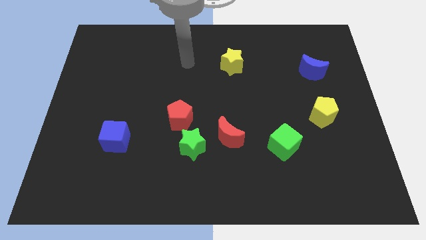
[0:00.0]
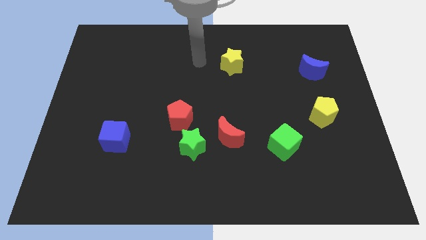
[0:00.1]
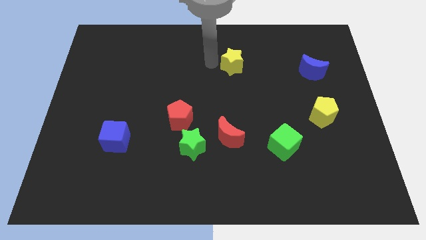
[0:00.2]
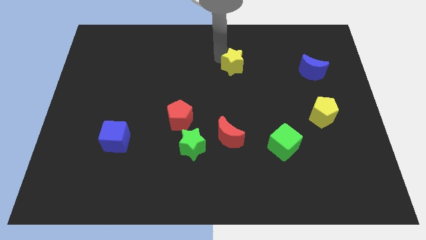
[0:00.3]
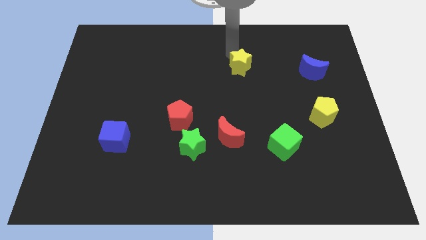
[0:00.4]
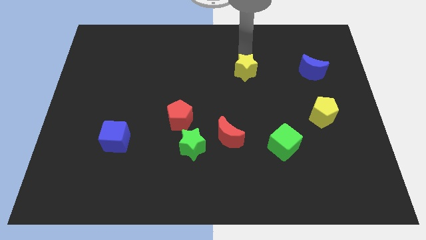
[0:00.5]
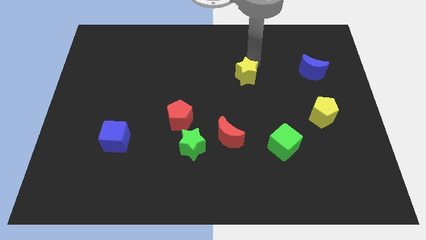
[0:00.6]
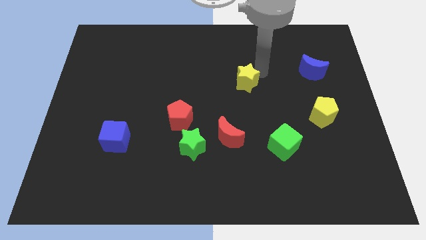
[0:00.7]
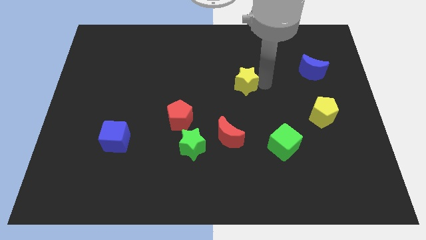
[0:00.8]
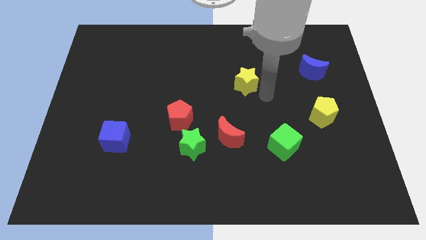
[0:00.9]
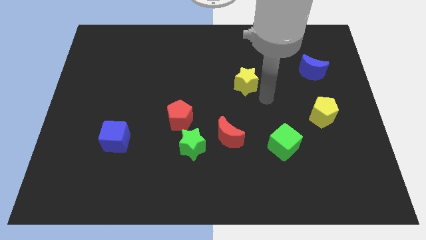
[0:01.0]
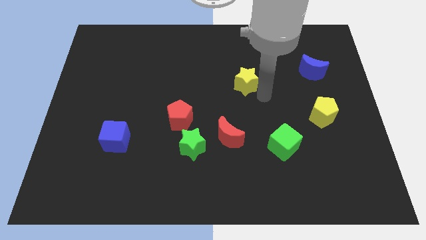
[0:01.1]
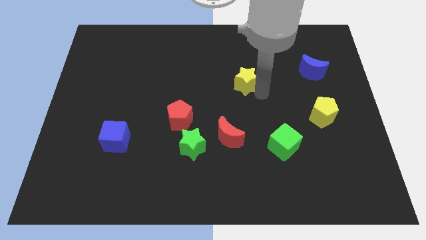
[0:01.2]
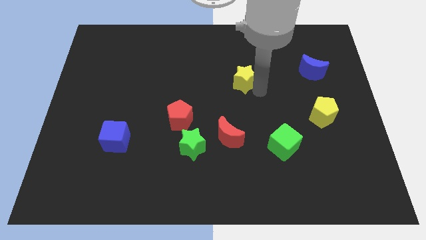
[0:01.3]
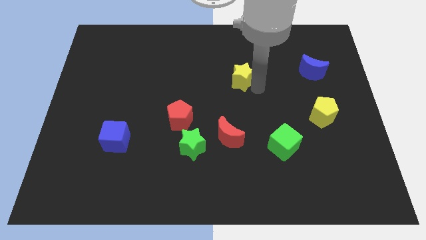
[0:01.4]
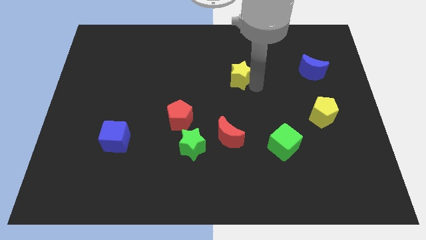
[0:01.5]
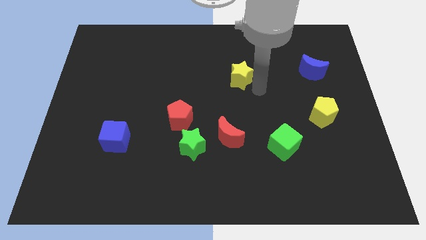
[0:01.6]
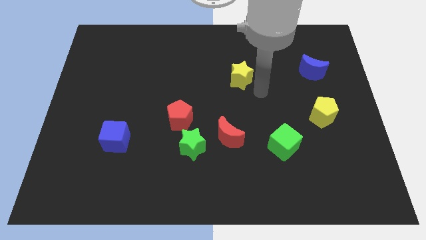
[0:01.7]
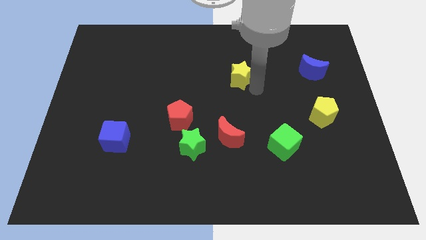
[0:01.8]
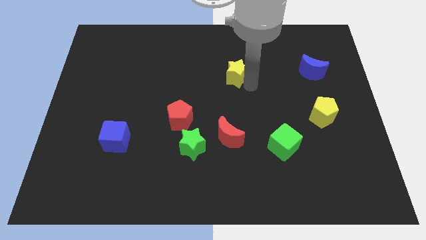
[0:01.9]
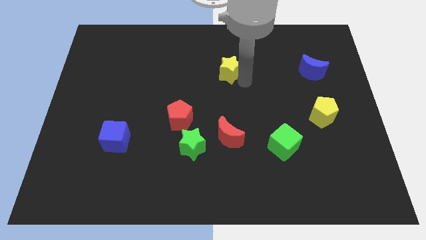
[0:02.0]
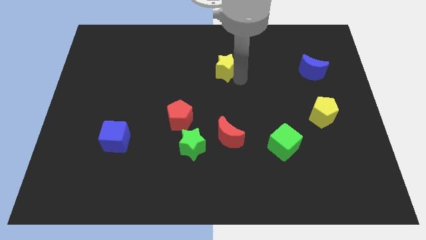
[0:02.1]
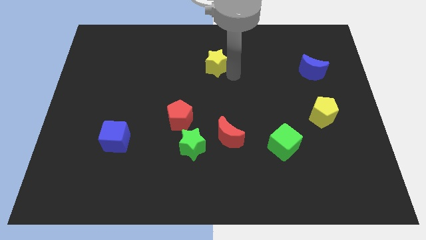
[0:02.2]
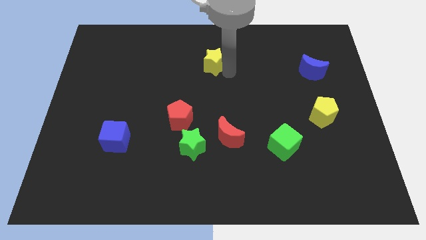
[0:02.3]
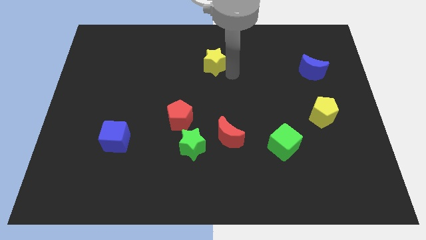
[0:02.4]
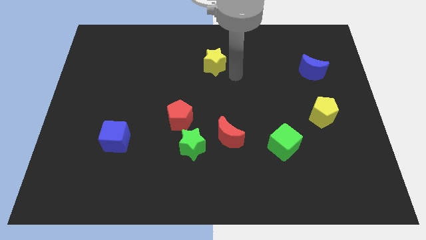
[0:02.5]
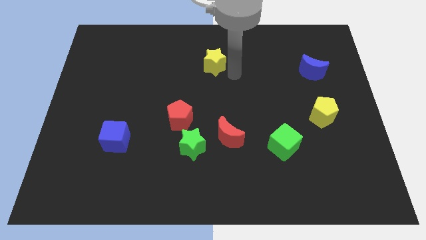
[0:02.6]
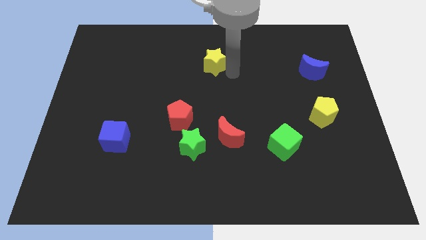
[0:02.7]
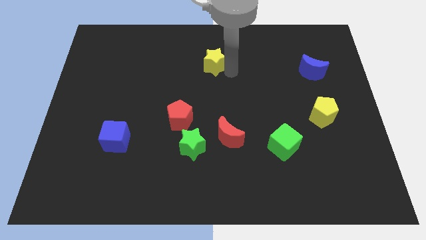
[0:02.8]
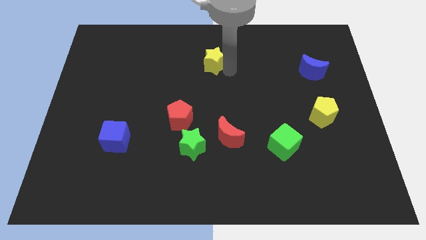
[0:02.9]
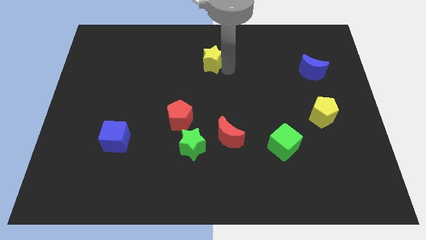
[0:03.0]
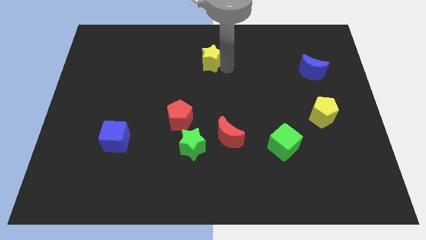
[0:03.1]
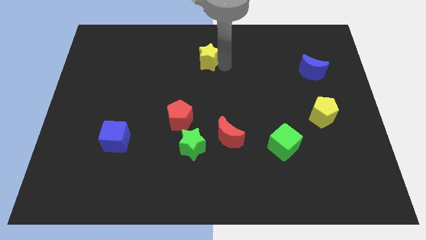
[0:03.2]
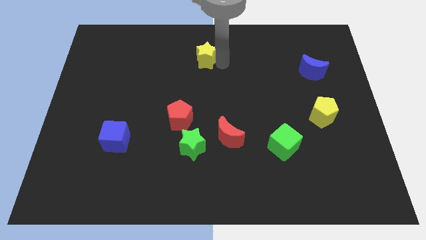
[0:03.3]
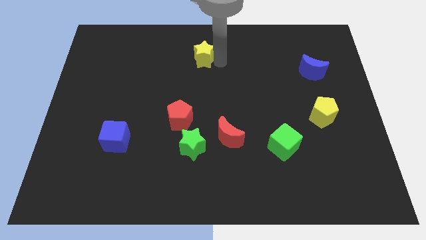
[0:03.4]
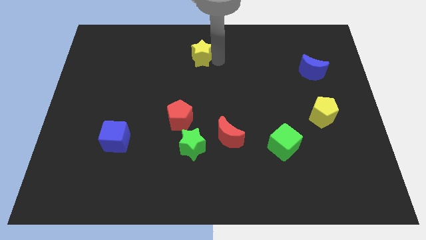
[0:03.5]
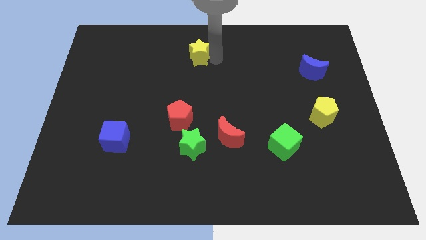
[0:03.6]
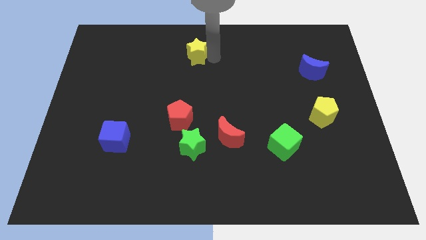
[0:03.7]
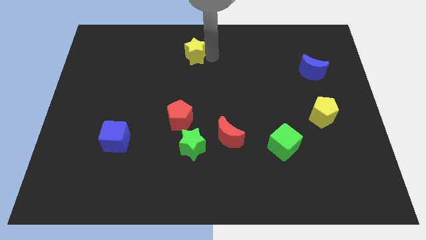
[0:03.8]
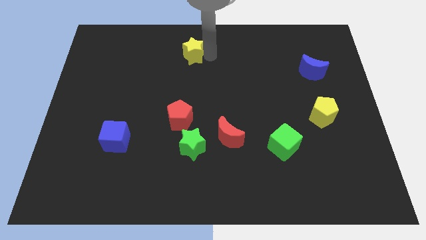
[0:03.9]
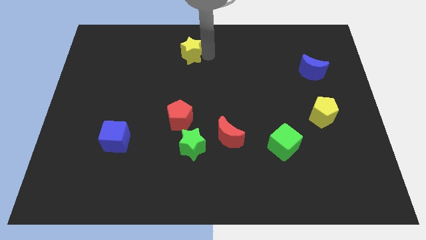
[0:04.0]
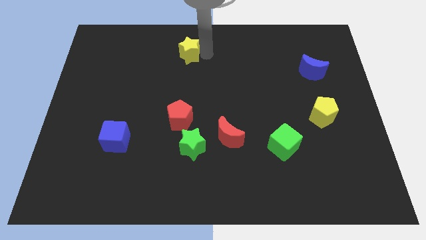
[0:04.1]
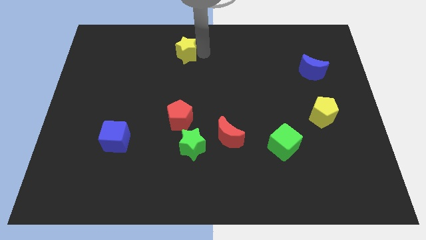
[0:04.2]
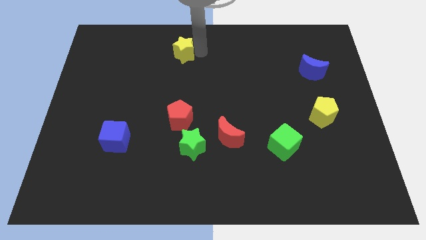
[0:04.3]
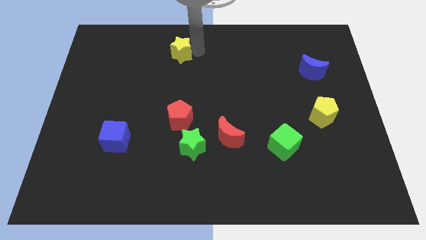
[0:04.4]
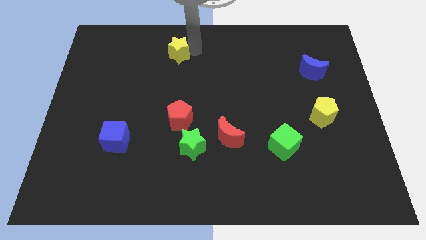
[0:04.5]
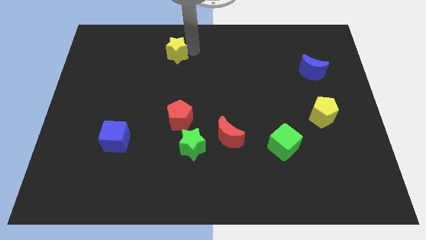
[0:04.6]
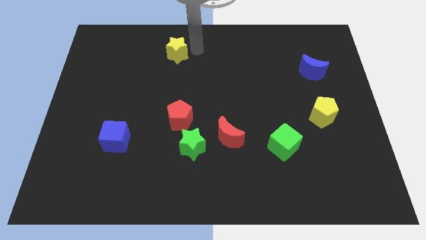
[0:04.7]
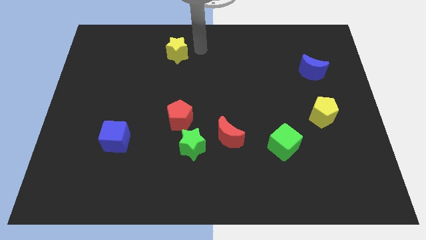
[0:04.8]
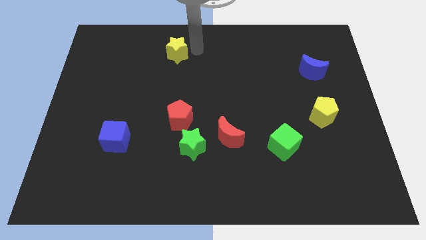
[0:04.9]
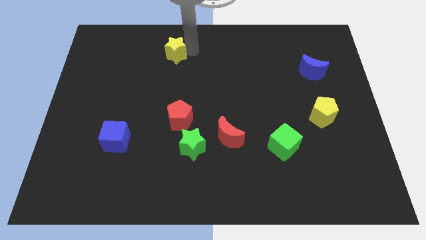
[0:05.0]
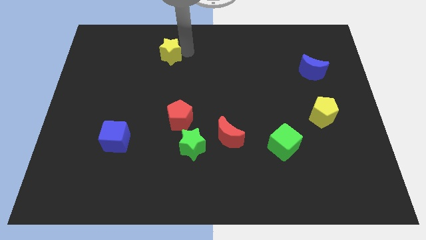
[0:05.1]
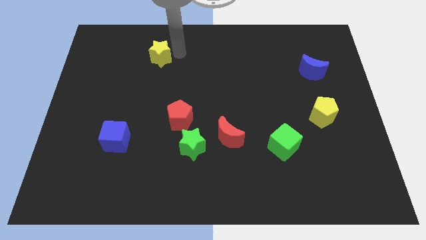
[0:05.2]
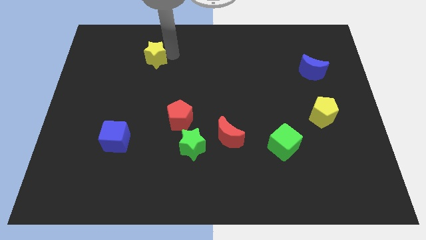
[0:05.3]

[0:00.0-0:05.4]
move the yellow star to the left

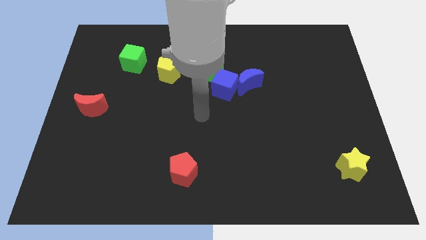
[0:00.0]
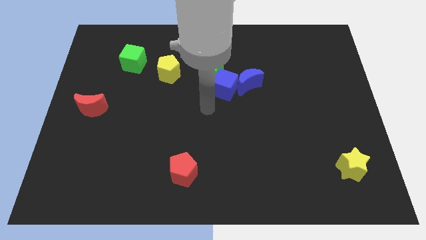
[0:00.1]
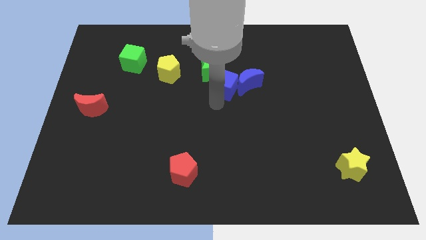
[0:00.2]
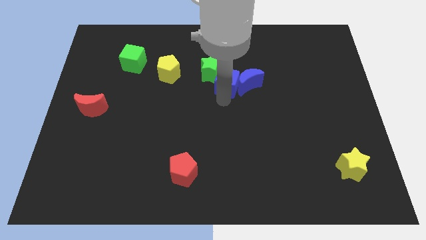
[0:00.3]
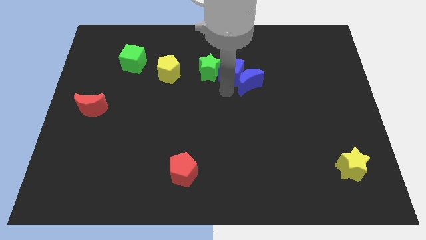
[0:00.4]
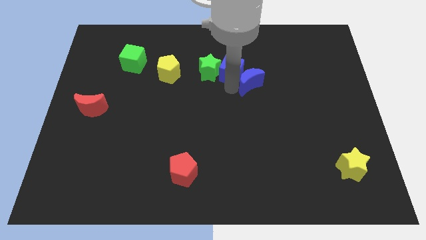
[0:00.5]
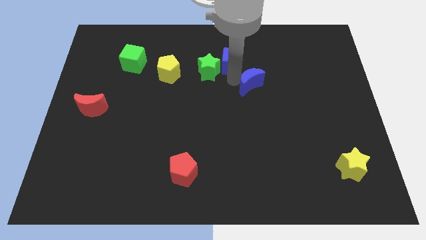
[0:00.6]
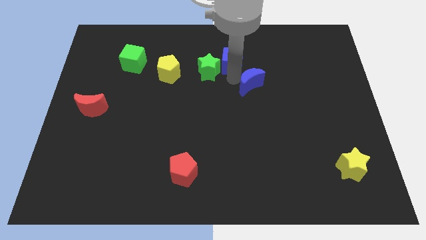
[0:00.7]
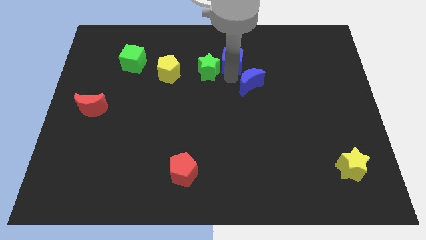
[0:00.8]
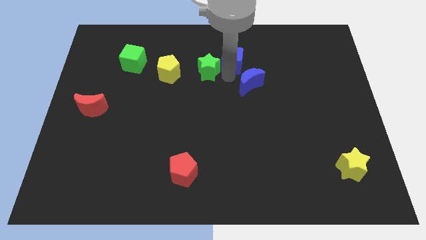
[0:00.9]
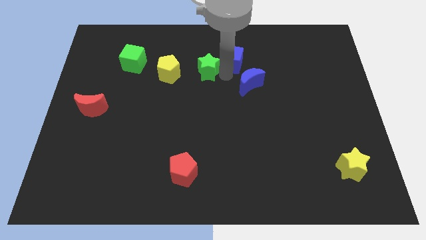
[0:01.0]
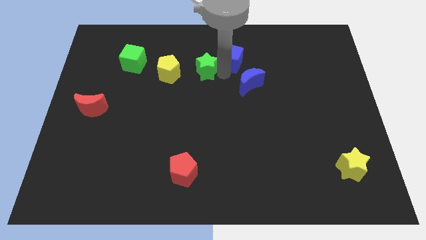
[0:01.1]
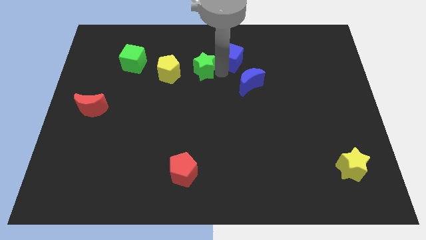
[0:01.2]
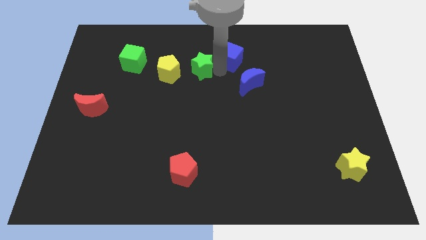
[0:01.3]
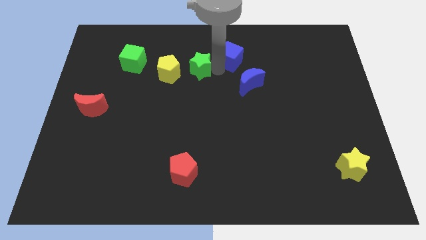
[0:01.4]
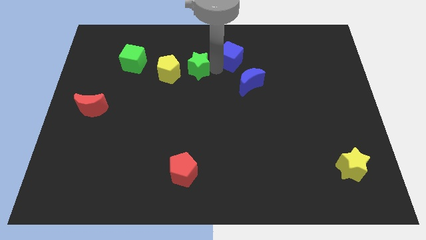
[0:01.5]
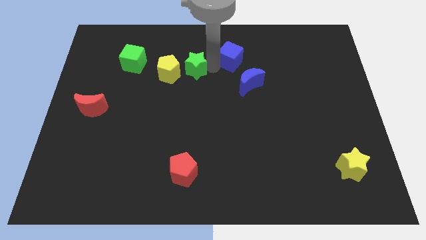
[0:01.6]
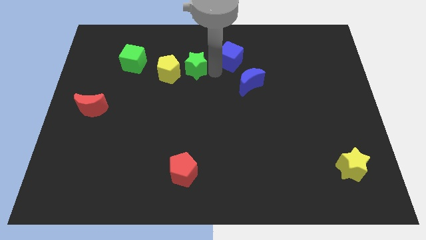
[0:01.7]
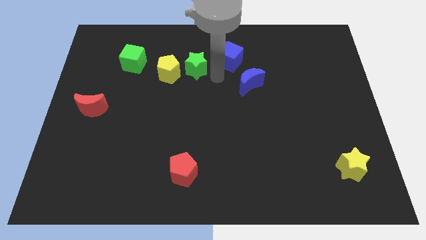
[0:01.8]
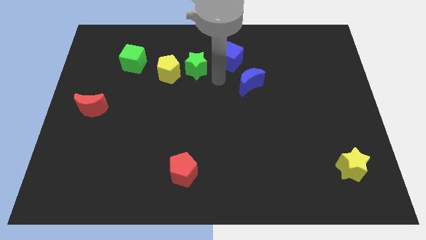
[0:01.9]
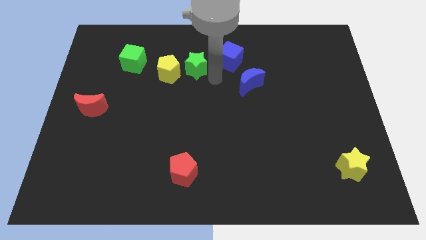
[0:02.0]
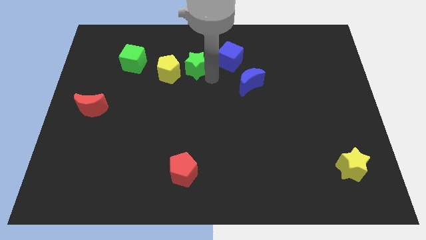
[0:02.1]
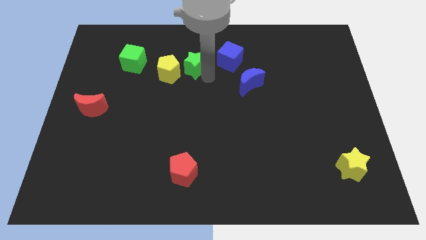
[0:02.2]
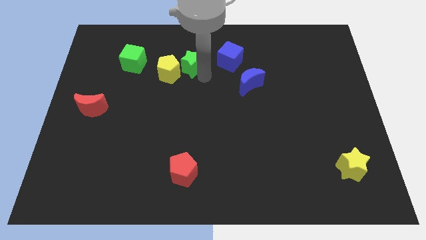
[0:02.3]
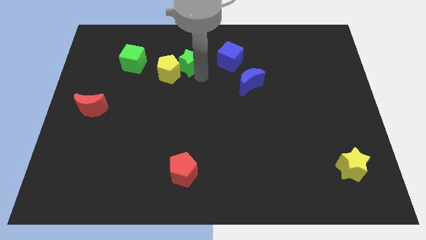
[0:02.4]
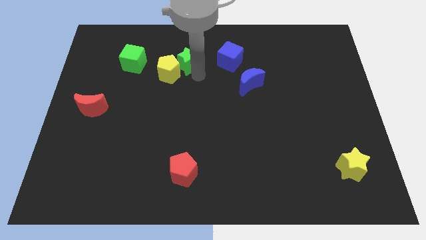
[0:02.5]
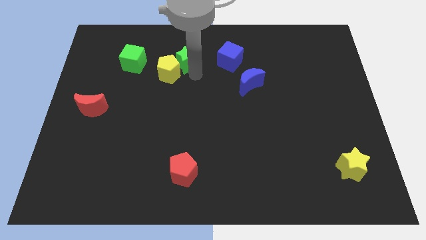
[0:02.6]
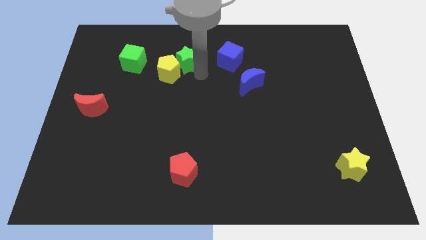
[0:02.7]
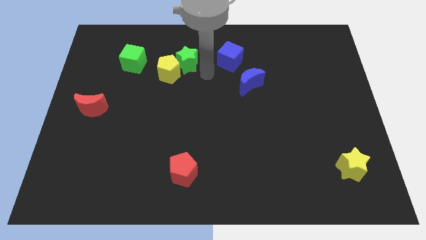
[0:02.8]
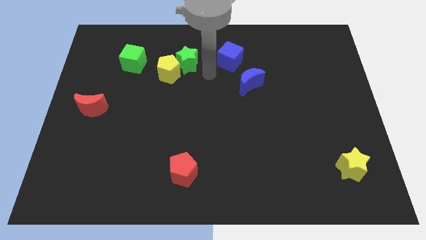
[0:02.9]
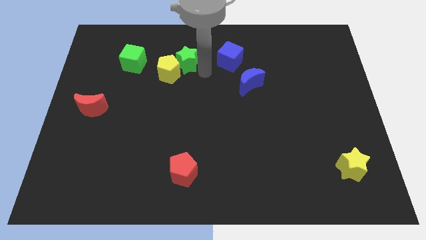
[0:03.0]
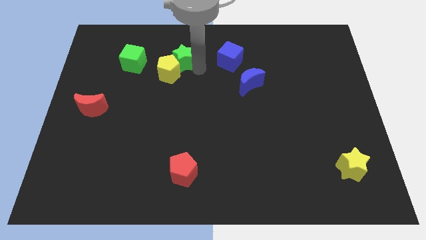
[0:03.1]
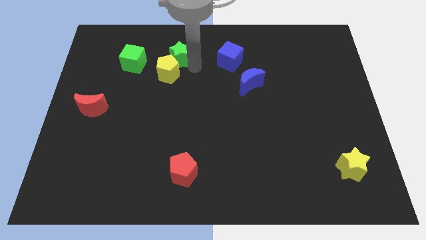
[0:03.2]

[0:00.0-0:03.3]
slightly push the green star left
